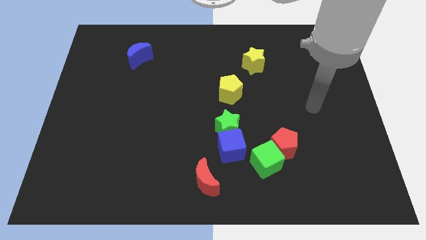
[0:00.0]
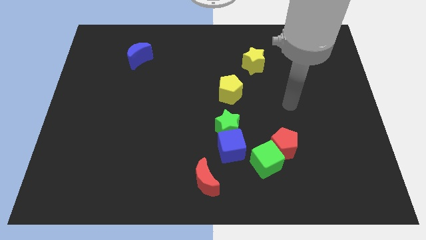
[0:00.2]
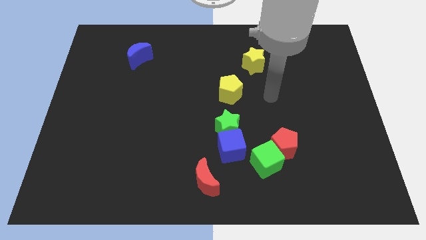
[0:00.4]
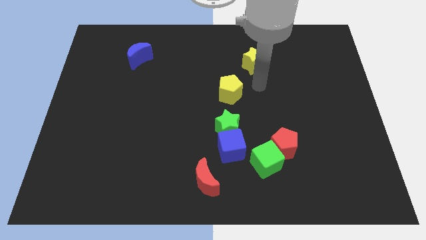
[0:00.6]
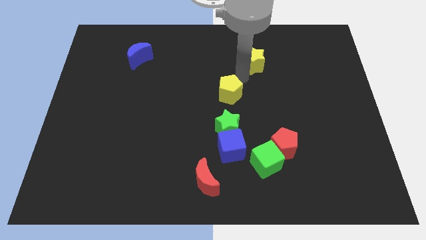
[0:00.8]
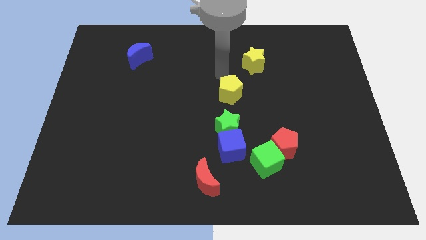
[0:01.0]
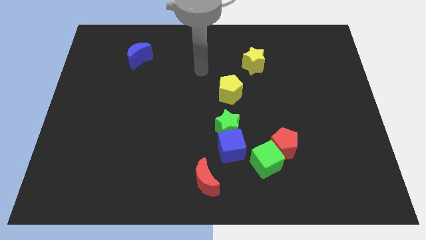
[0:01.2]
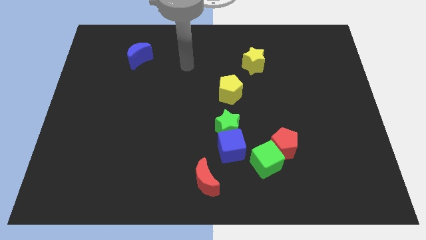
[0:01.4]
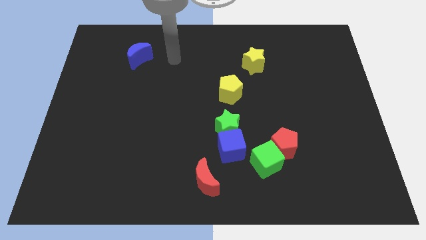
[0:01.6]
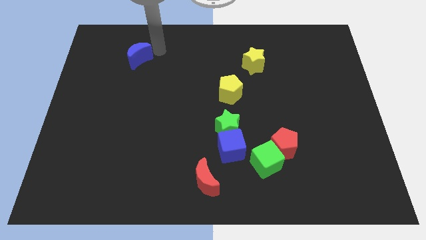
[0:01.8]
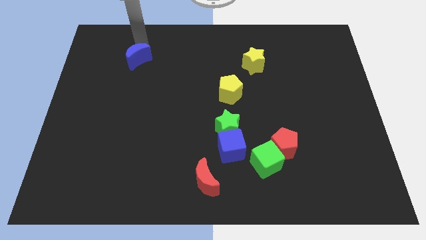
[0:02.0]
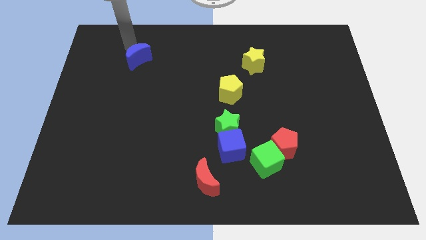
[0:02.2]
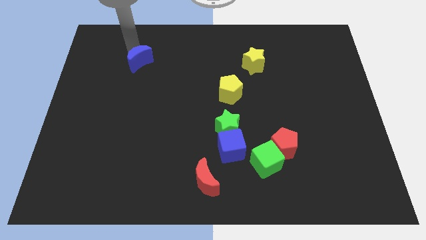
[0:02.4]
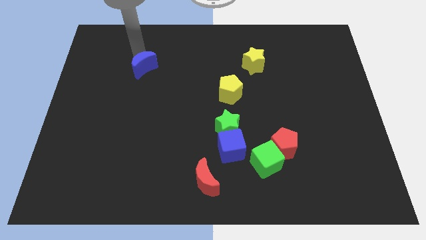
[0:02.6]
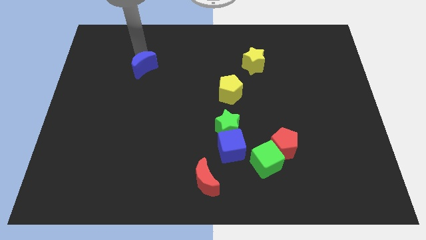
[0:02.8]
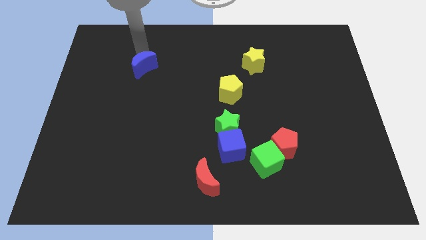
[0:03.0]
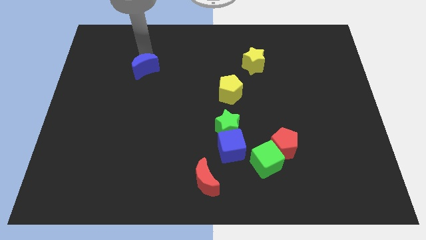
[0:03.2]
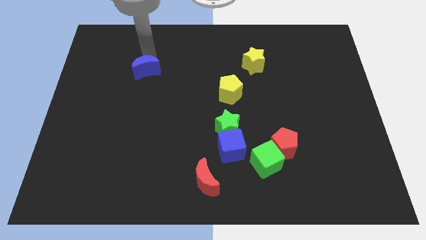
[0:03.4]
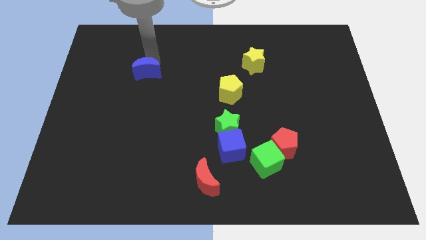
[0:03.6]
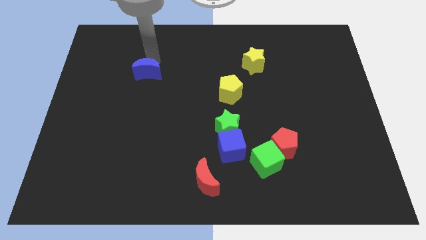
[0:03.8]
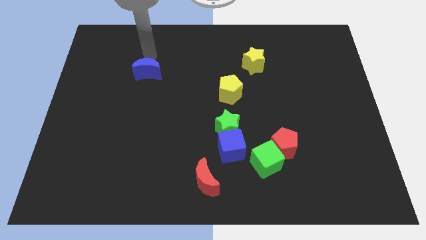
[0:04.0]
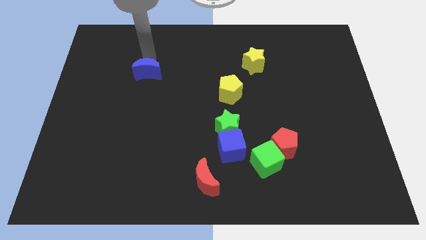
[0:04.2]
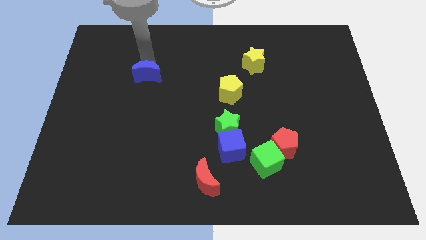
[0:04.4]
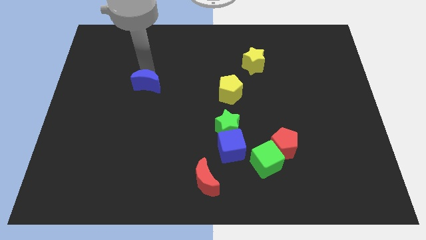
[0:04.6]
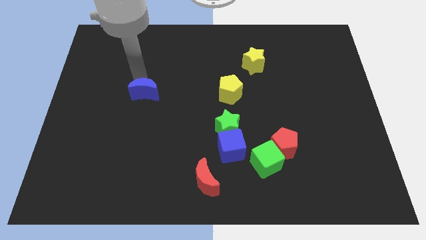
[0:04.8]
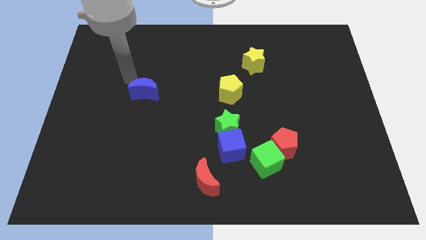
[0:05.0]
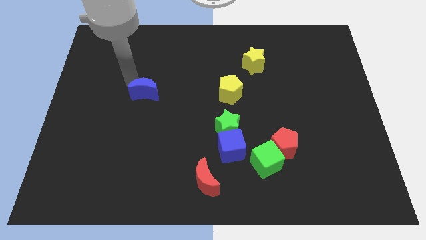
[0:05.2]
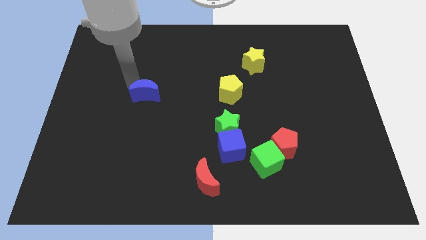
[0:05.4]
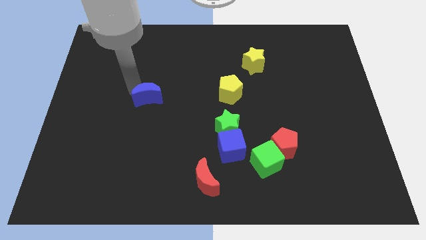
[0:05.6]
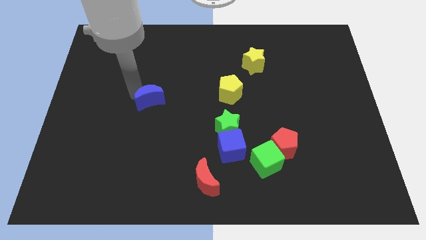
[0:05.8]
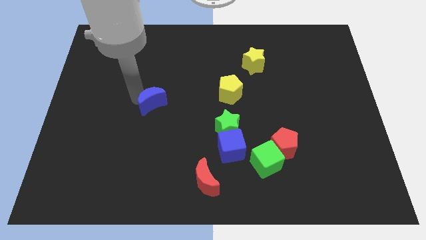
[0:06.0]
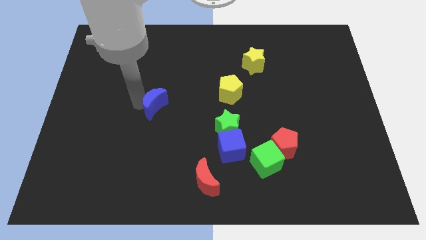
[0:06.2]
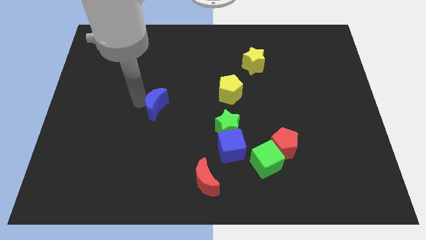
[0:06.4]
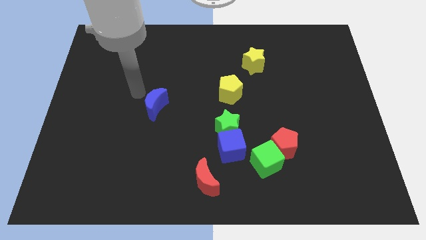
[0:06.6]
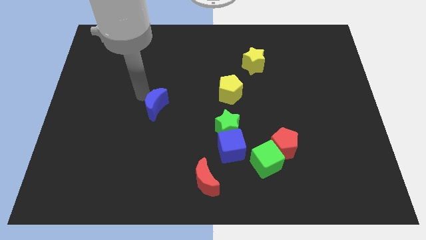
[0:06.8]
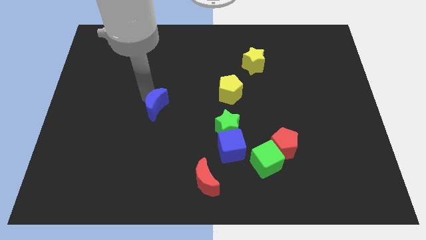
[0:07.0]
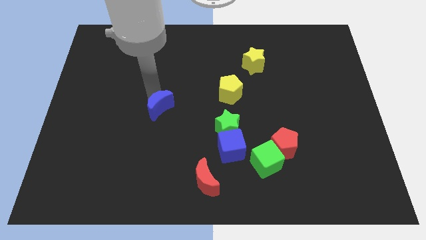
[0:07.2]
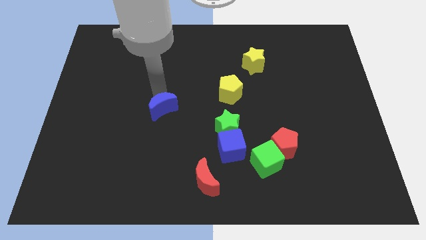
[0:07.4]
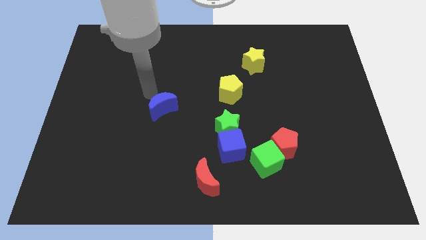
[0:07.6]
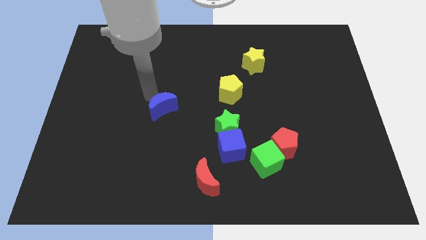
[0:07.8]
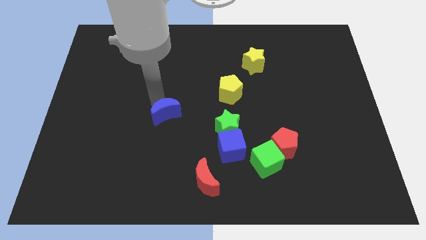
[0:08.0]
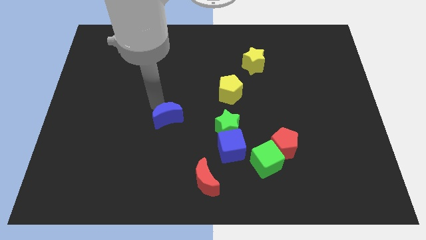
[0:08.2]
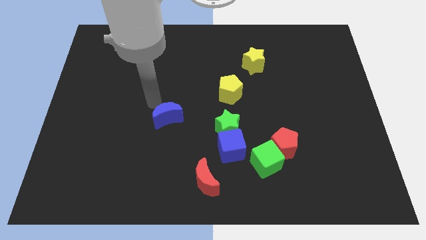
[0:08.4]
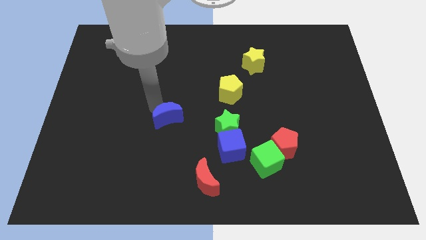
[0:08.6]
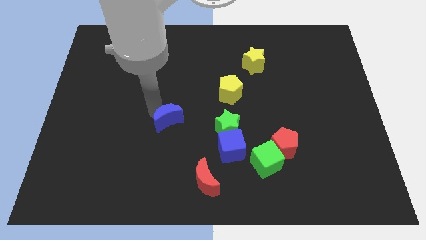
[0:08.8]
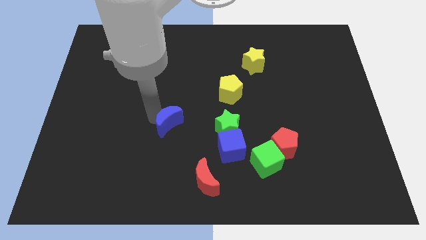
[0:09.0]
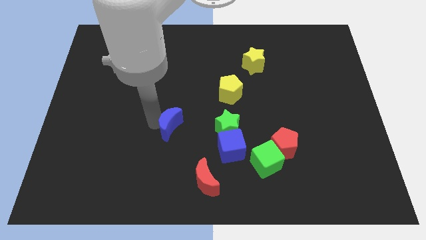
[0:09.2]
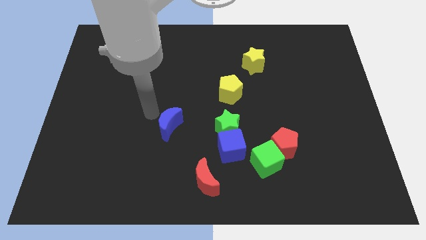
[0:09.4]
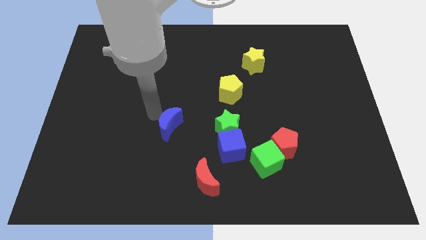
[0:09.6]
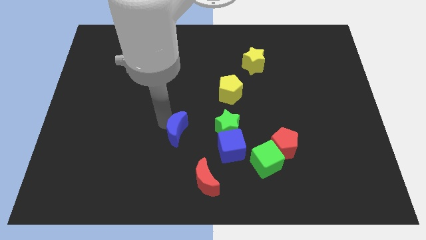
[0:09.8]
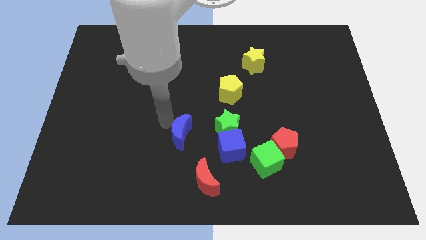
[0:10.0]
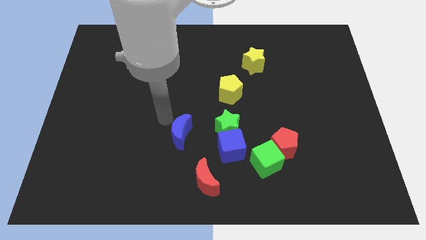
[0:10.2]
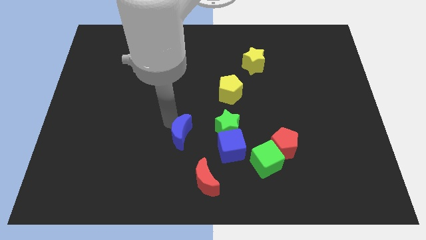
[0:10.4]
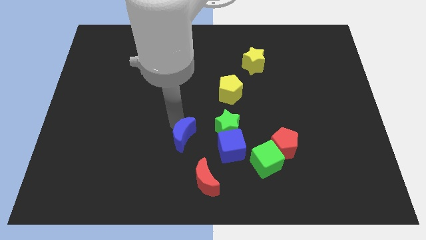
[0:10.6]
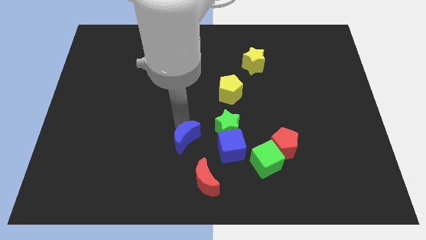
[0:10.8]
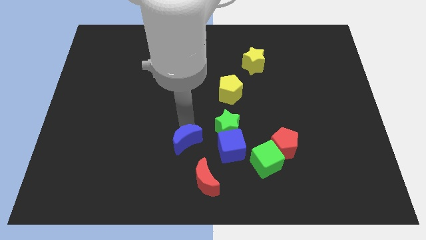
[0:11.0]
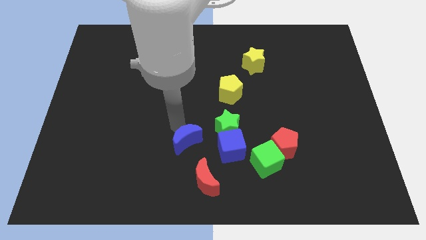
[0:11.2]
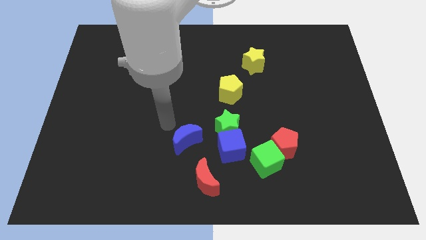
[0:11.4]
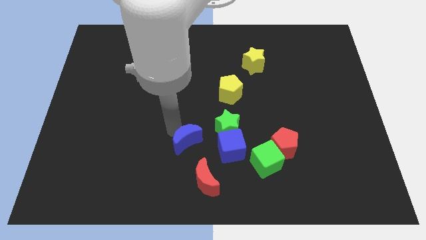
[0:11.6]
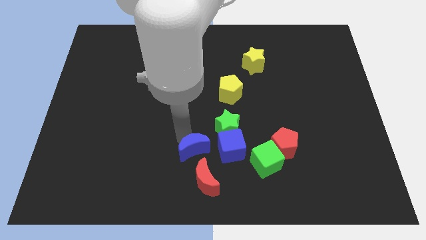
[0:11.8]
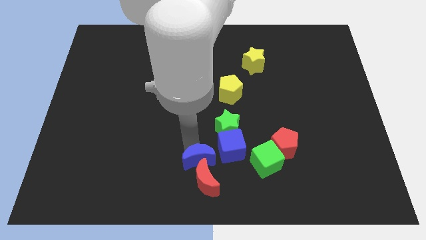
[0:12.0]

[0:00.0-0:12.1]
put the blue moon next to the red moon

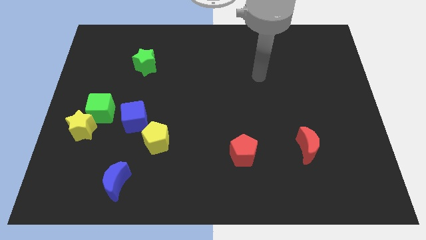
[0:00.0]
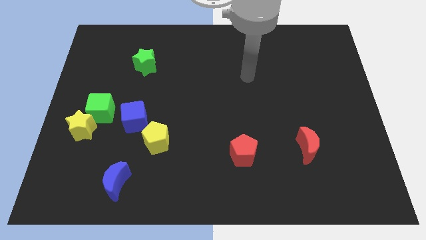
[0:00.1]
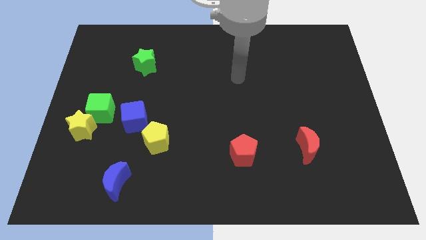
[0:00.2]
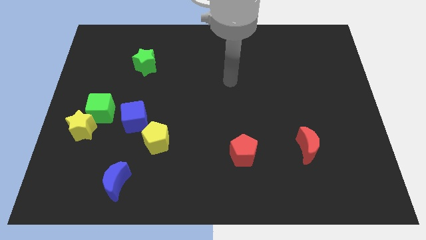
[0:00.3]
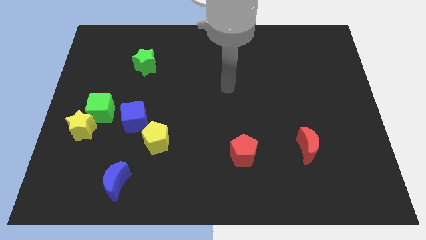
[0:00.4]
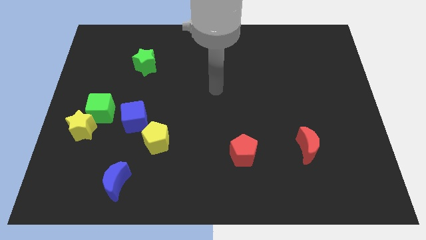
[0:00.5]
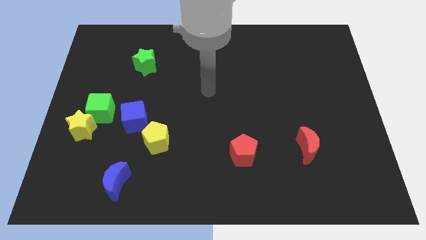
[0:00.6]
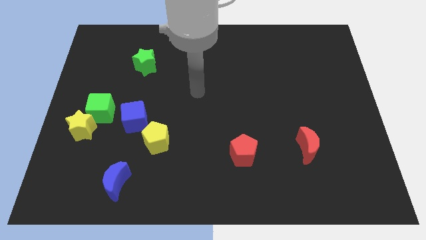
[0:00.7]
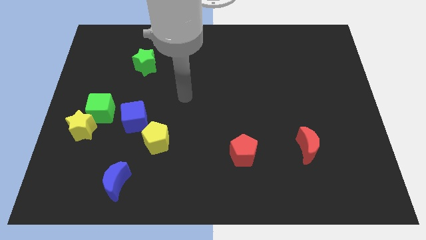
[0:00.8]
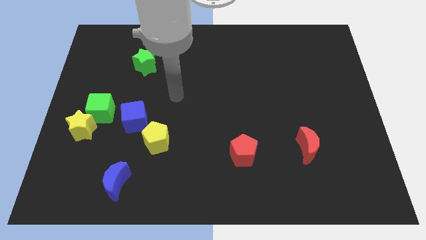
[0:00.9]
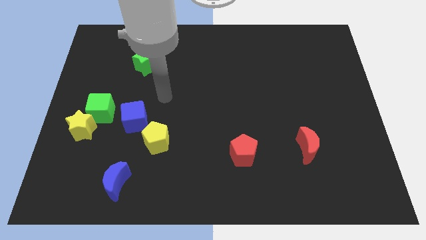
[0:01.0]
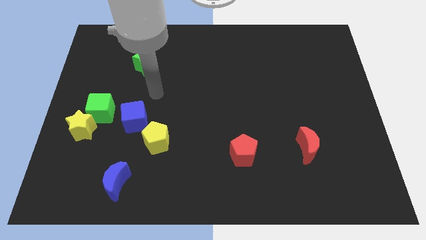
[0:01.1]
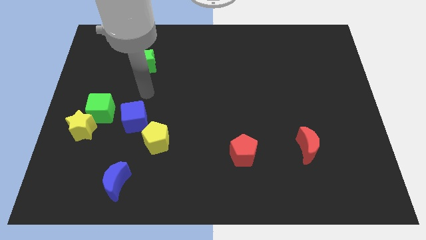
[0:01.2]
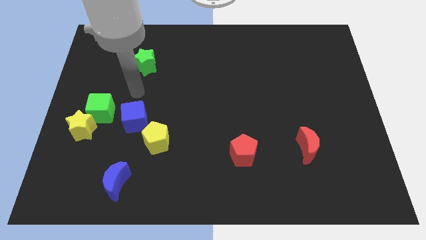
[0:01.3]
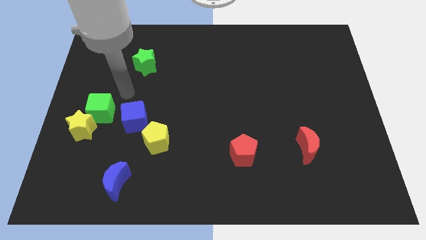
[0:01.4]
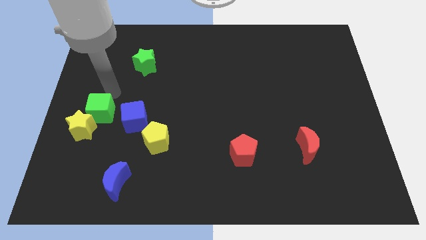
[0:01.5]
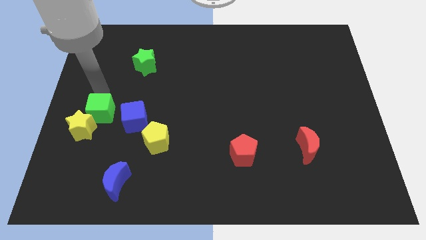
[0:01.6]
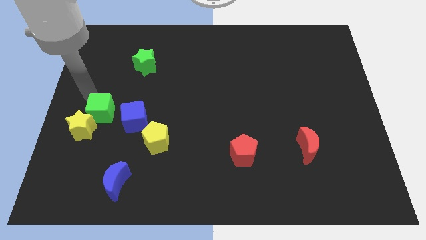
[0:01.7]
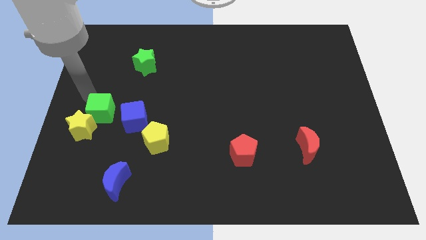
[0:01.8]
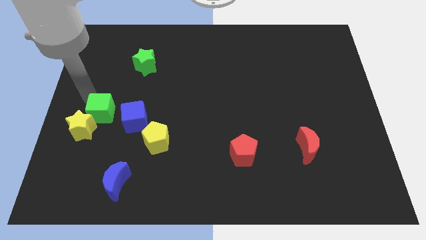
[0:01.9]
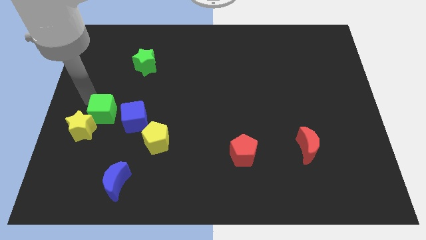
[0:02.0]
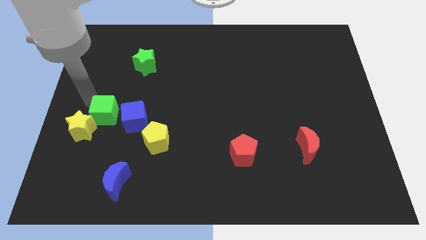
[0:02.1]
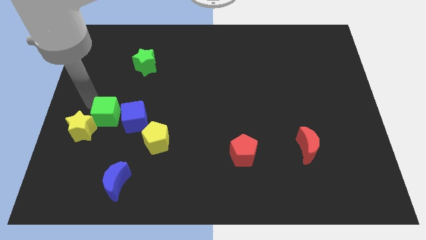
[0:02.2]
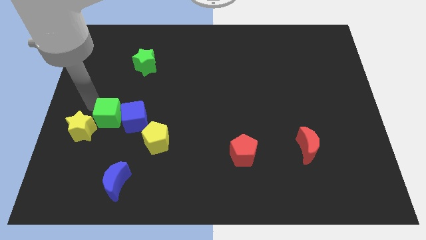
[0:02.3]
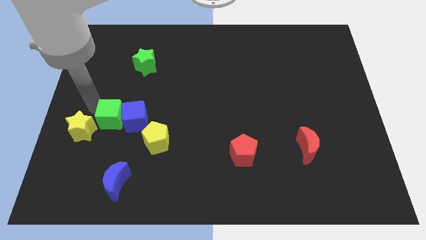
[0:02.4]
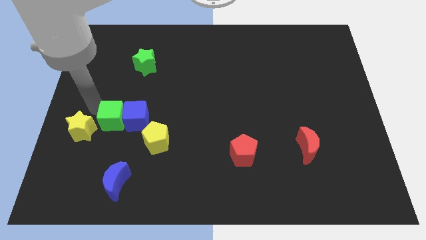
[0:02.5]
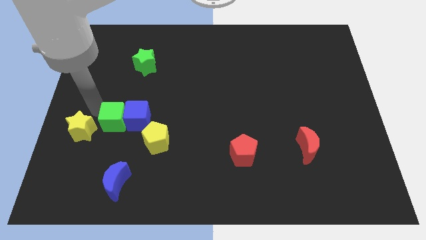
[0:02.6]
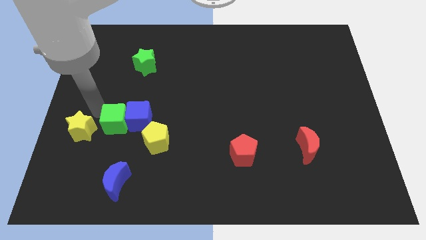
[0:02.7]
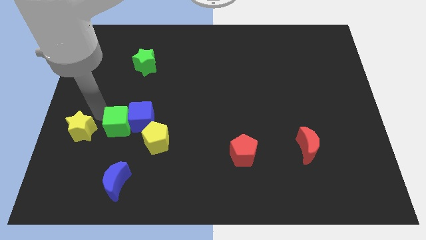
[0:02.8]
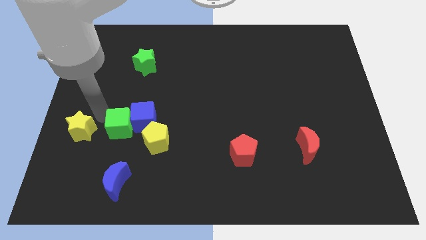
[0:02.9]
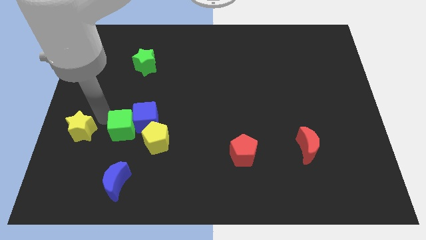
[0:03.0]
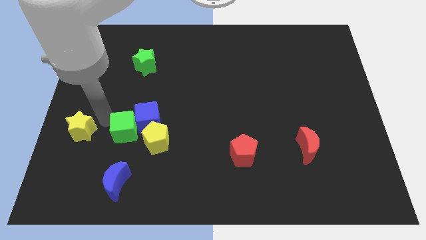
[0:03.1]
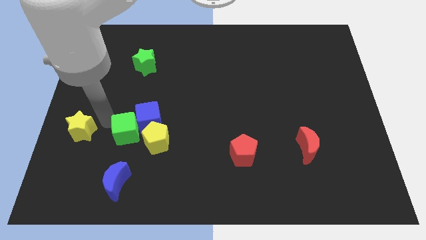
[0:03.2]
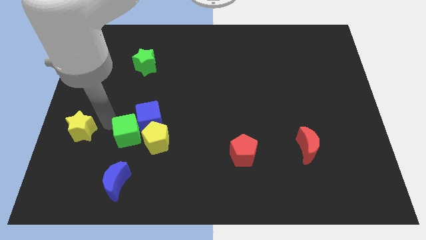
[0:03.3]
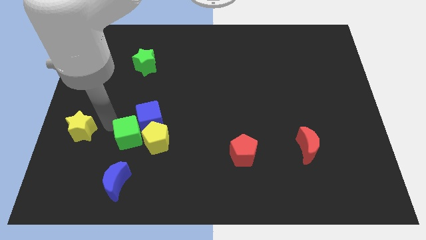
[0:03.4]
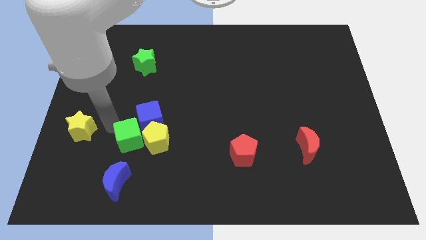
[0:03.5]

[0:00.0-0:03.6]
push the green cube close to the yellow pentagon
